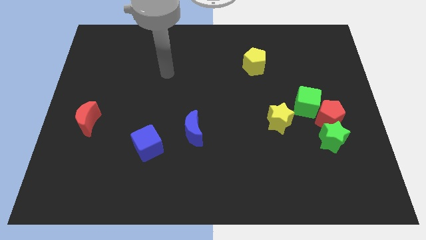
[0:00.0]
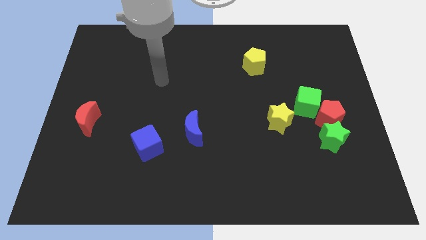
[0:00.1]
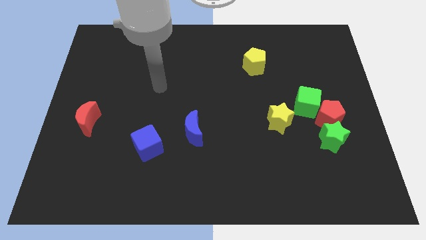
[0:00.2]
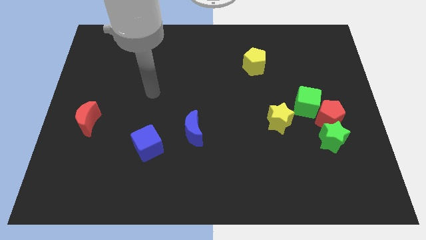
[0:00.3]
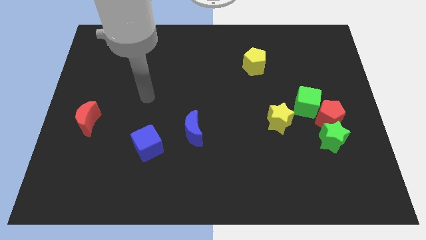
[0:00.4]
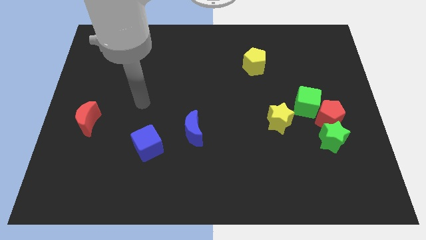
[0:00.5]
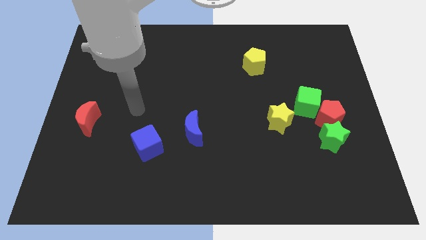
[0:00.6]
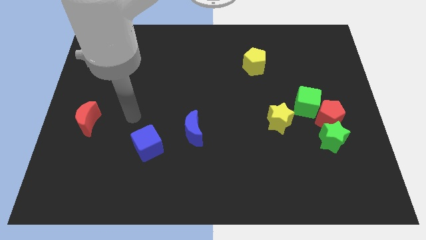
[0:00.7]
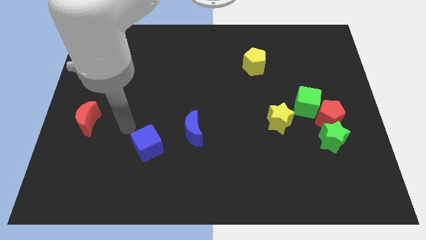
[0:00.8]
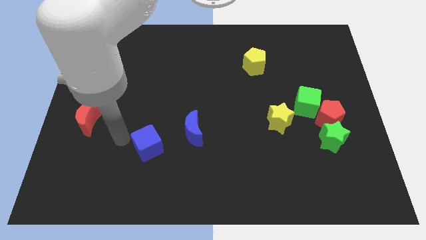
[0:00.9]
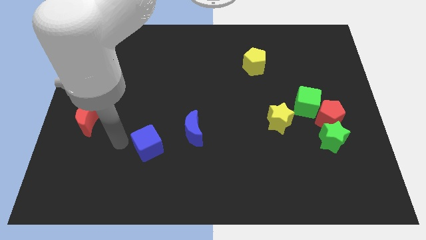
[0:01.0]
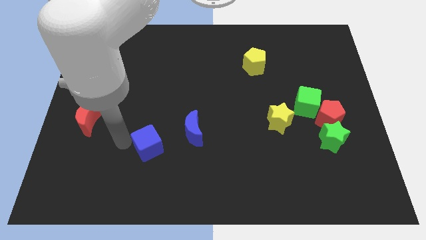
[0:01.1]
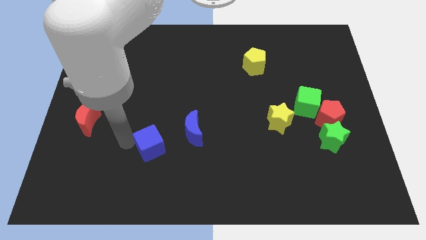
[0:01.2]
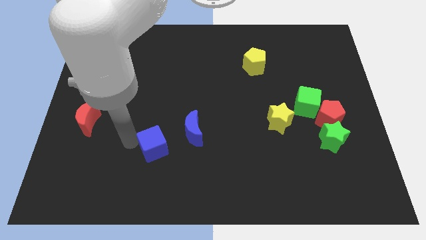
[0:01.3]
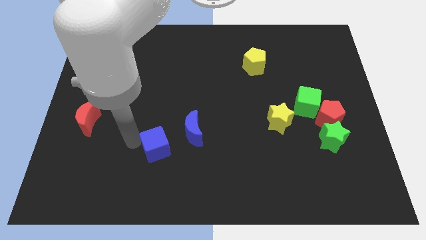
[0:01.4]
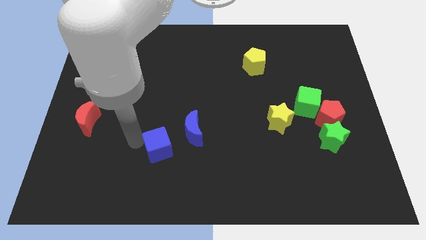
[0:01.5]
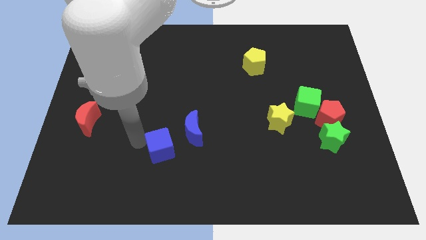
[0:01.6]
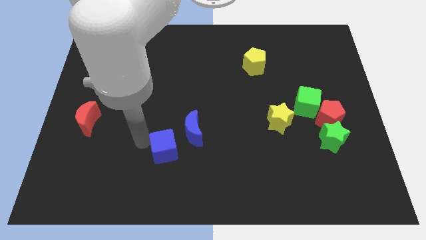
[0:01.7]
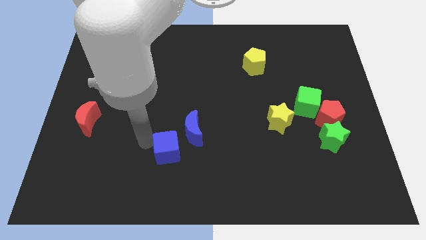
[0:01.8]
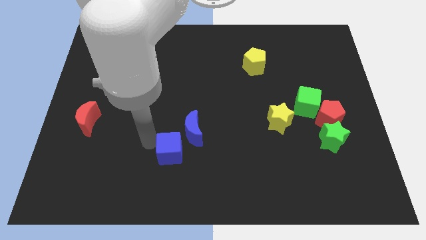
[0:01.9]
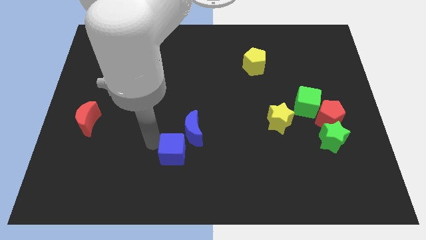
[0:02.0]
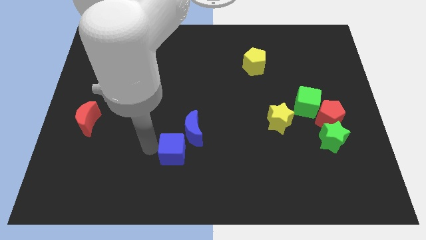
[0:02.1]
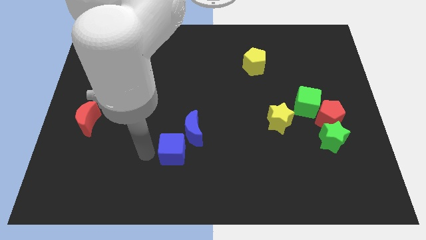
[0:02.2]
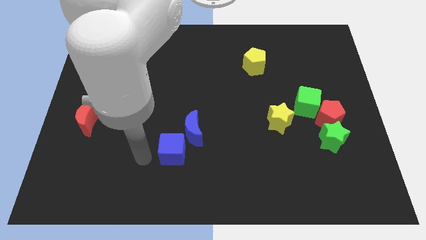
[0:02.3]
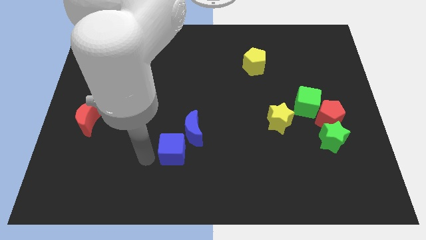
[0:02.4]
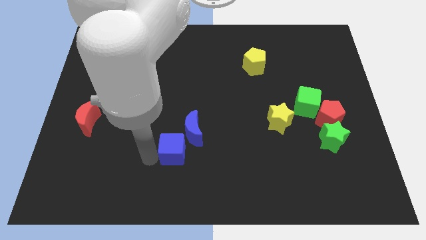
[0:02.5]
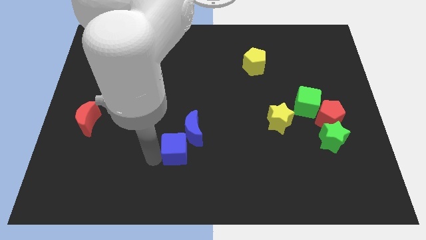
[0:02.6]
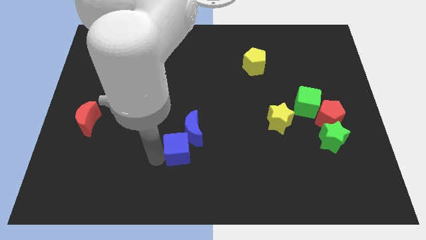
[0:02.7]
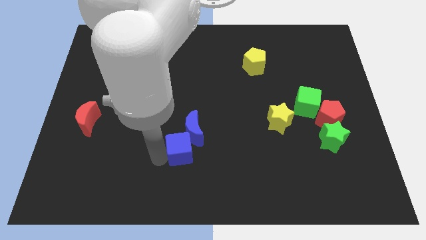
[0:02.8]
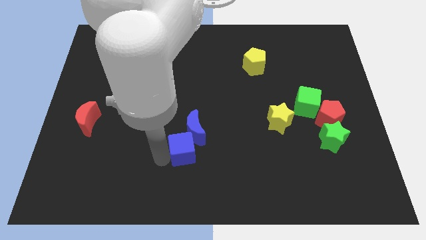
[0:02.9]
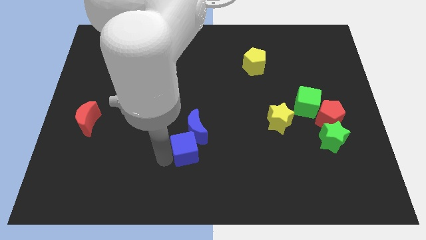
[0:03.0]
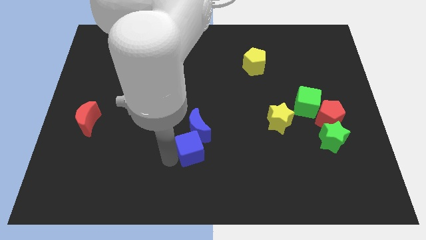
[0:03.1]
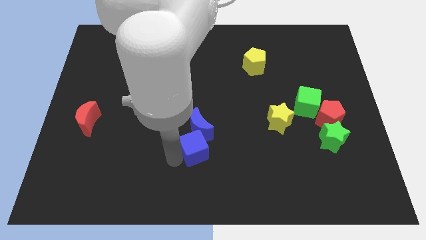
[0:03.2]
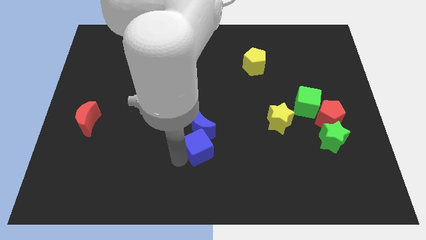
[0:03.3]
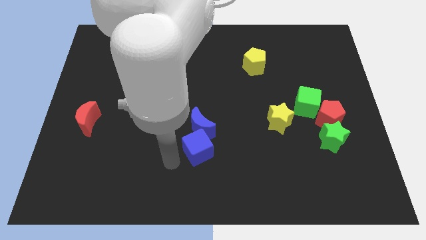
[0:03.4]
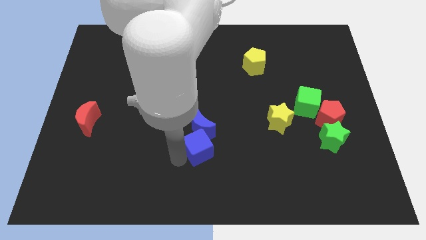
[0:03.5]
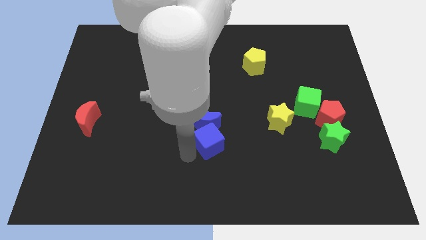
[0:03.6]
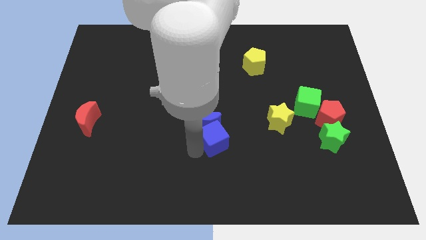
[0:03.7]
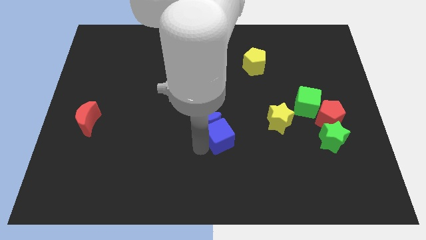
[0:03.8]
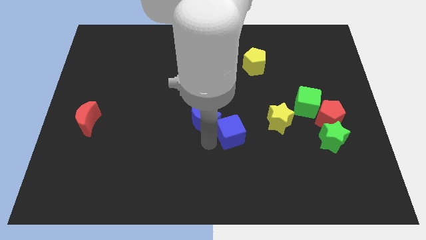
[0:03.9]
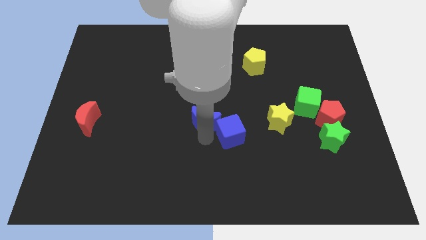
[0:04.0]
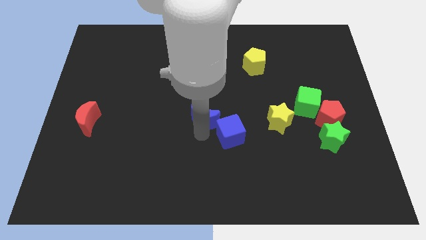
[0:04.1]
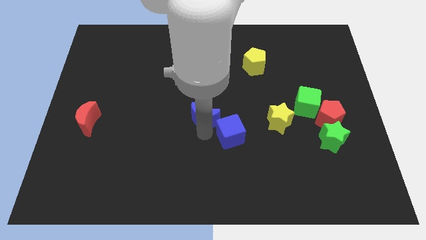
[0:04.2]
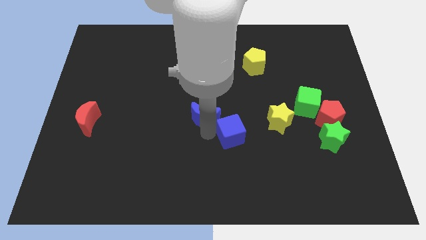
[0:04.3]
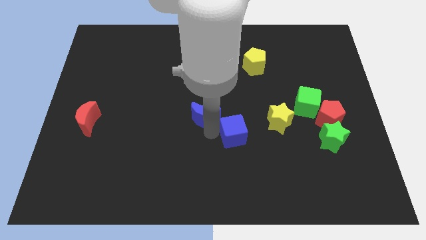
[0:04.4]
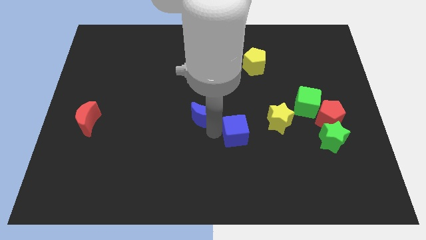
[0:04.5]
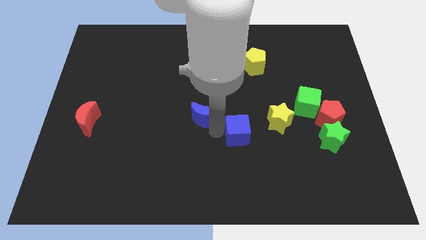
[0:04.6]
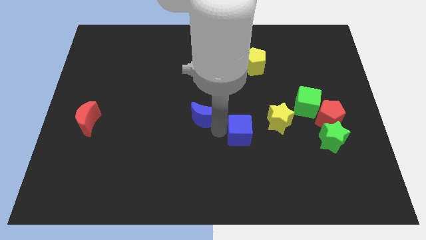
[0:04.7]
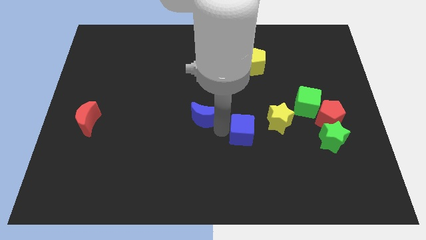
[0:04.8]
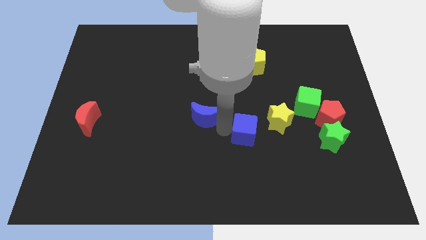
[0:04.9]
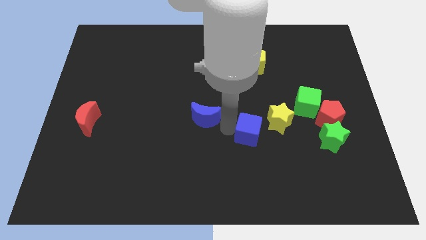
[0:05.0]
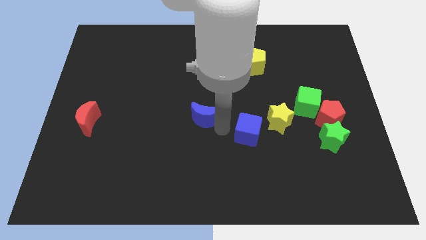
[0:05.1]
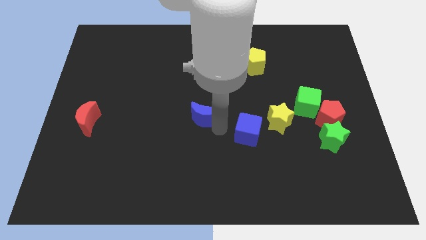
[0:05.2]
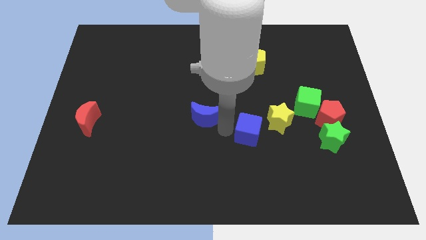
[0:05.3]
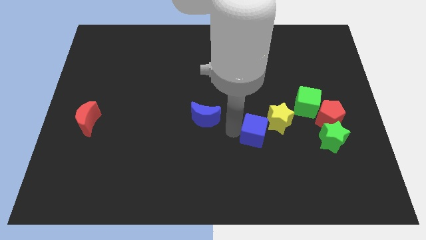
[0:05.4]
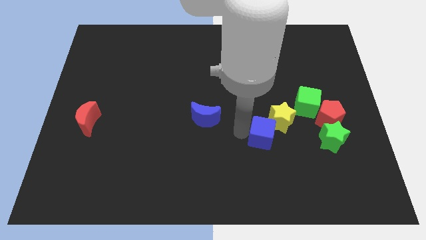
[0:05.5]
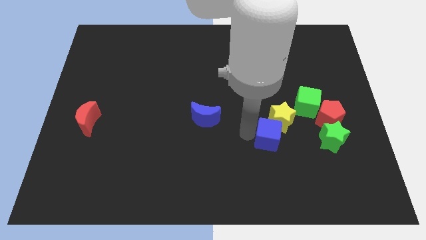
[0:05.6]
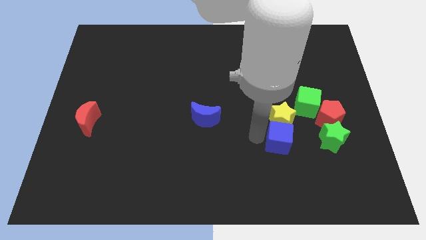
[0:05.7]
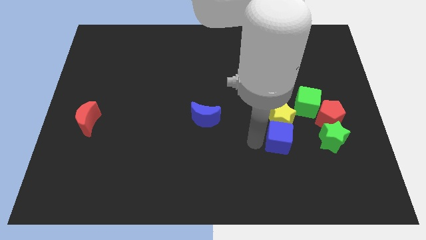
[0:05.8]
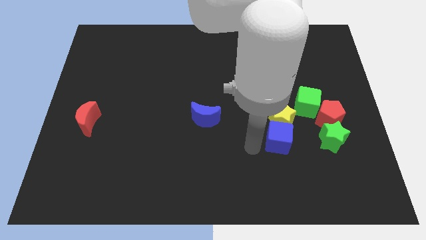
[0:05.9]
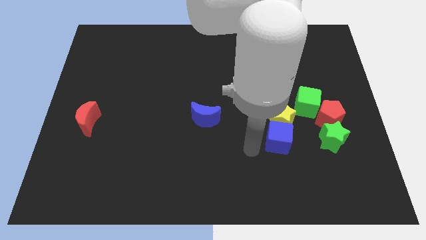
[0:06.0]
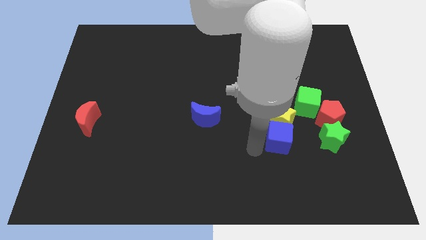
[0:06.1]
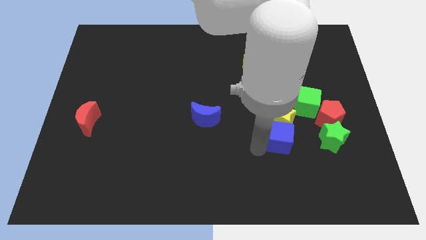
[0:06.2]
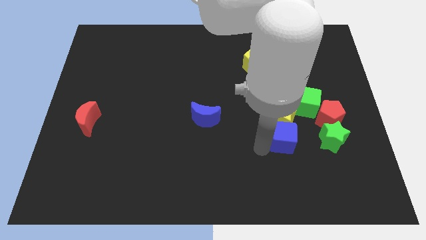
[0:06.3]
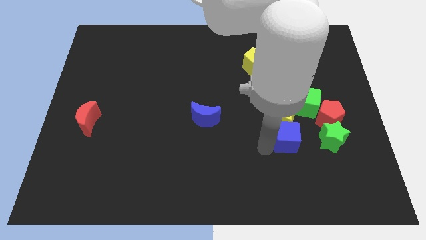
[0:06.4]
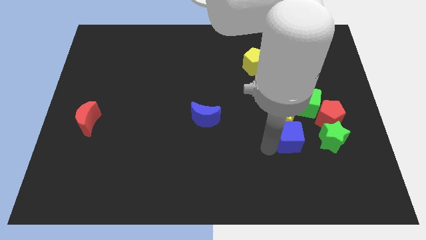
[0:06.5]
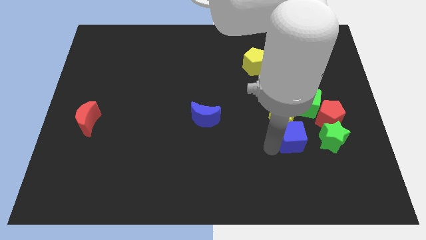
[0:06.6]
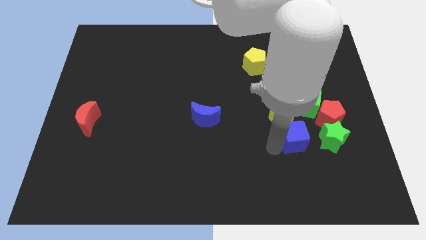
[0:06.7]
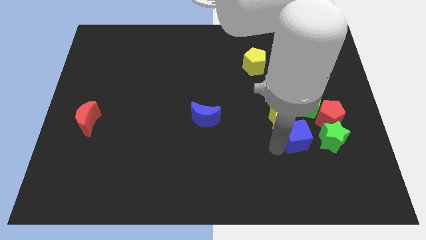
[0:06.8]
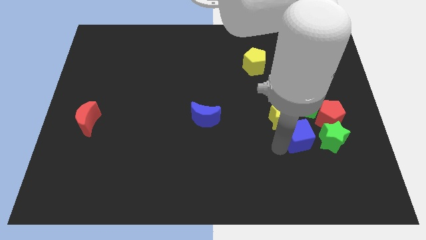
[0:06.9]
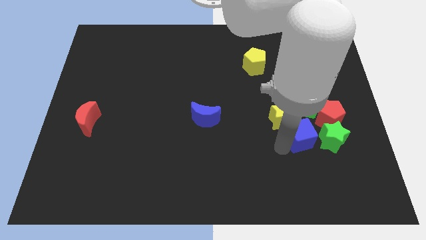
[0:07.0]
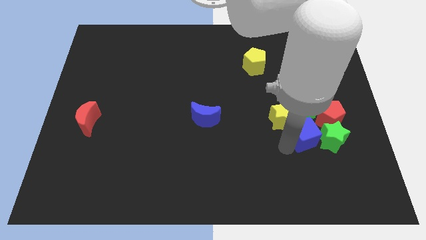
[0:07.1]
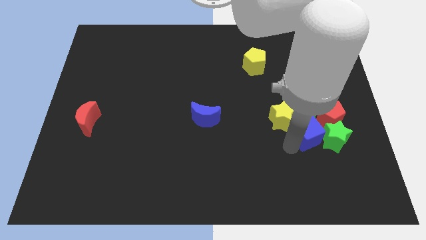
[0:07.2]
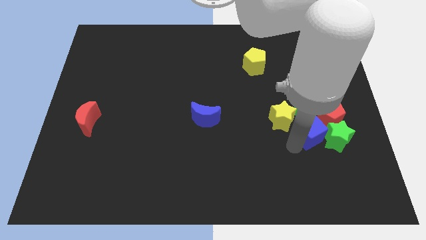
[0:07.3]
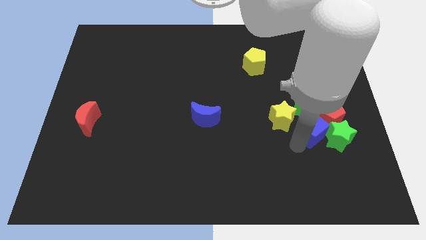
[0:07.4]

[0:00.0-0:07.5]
move the blue cube next to the red pentagon

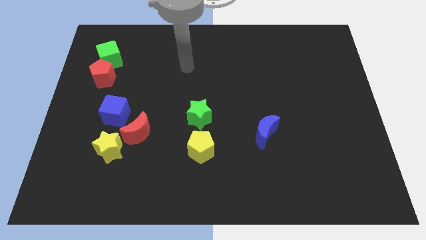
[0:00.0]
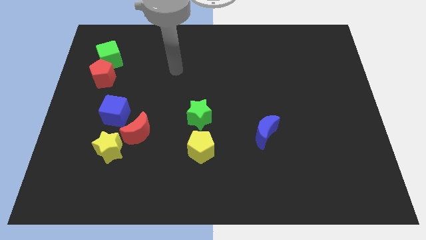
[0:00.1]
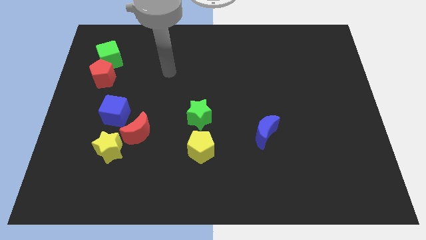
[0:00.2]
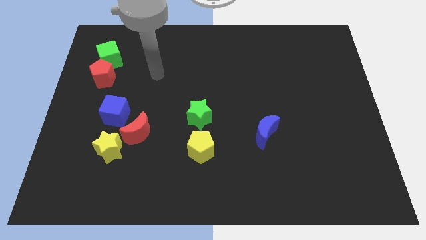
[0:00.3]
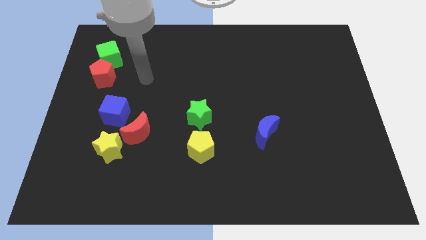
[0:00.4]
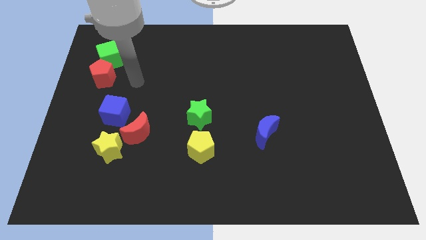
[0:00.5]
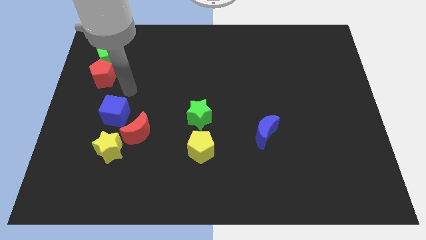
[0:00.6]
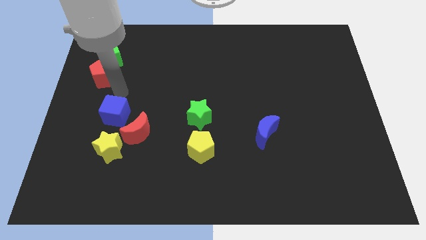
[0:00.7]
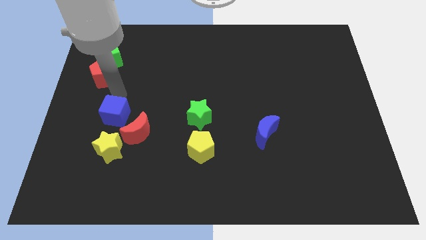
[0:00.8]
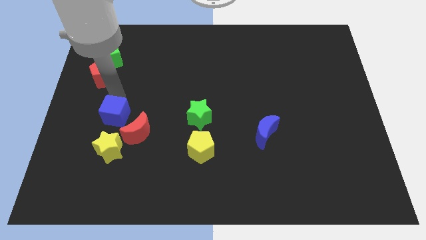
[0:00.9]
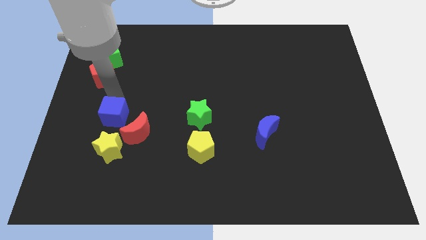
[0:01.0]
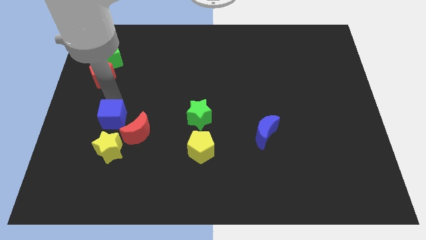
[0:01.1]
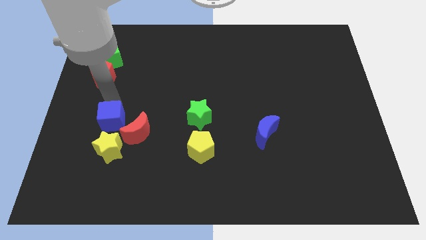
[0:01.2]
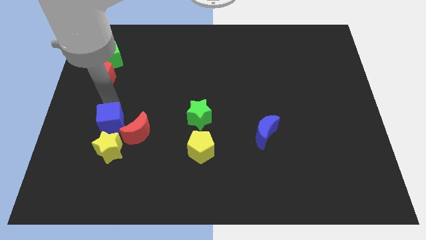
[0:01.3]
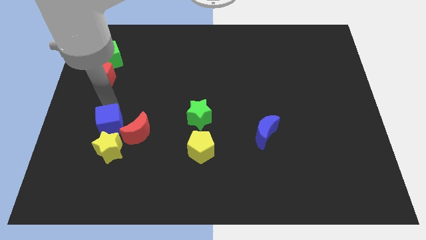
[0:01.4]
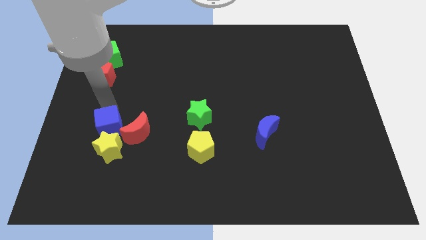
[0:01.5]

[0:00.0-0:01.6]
slide the blue cube towards the yellow star
